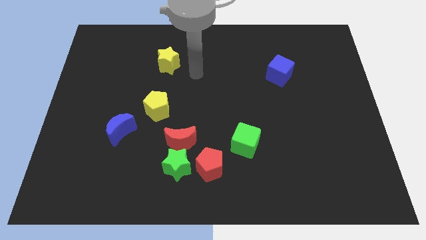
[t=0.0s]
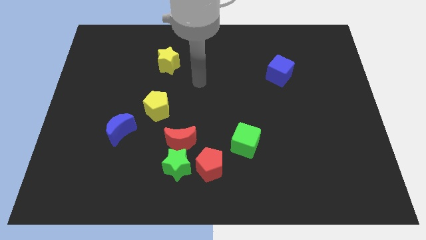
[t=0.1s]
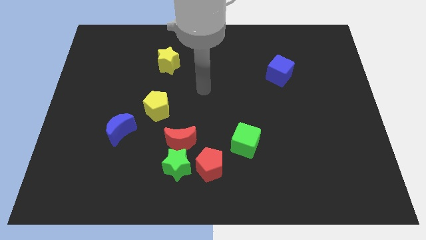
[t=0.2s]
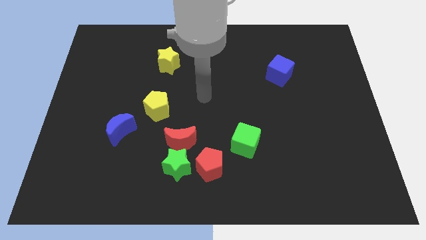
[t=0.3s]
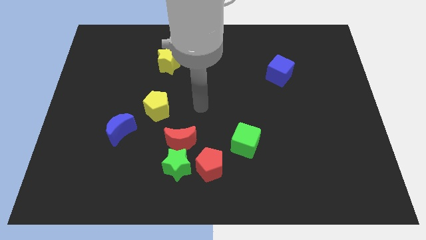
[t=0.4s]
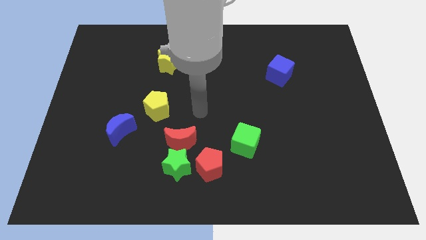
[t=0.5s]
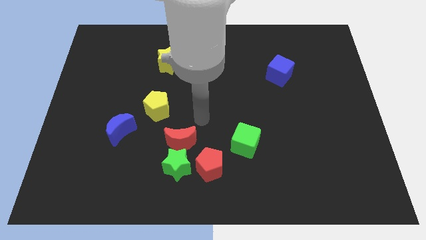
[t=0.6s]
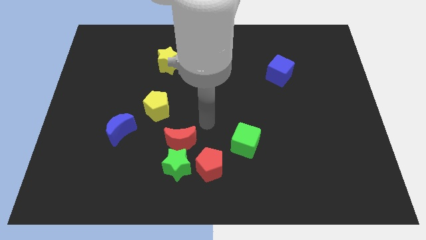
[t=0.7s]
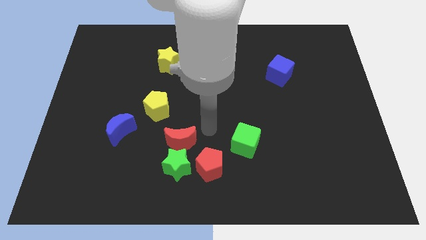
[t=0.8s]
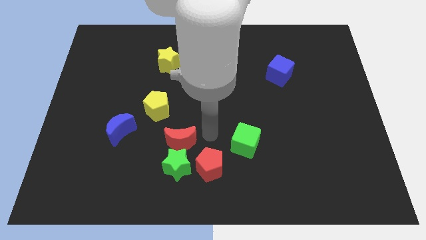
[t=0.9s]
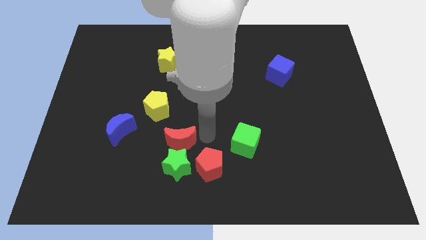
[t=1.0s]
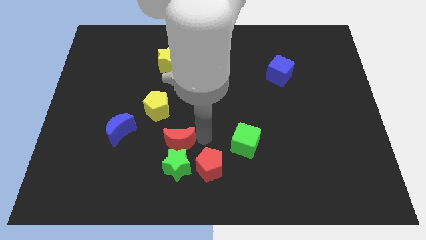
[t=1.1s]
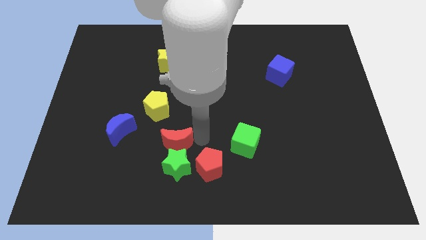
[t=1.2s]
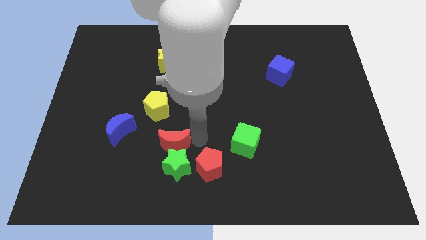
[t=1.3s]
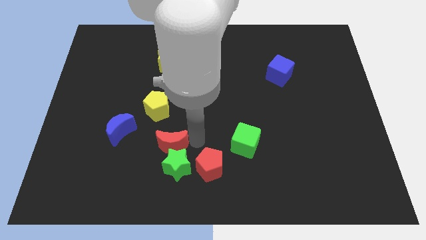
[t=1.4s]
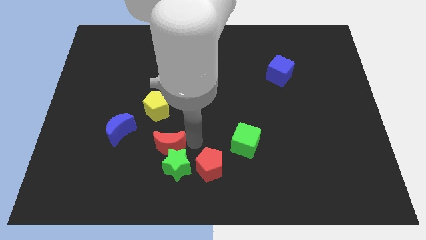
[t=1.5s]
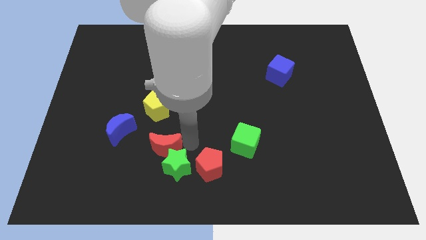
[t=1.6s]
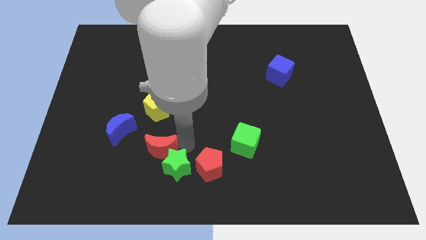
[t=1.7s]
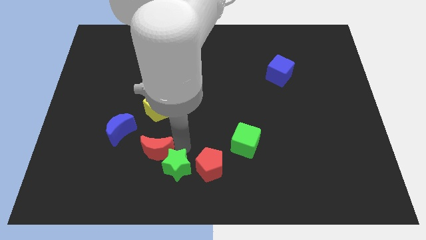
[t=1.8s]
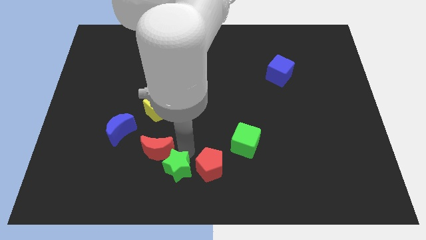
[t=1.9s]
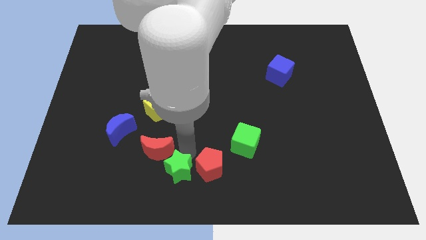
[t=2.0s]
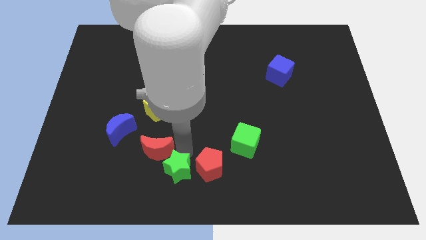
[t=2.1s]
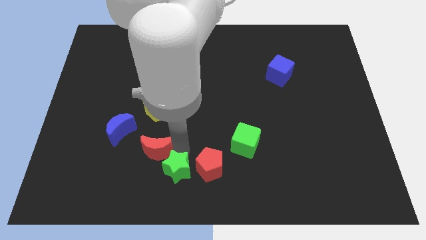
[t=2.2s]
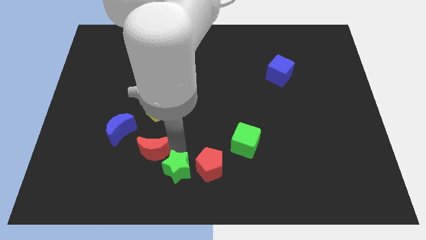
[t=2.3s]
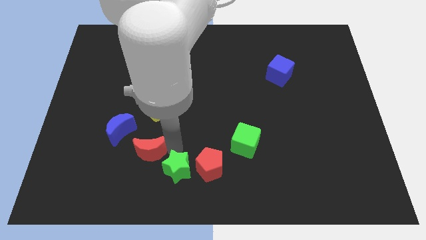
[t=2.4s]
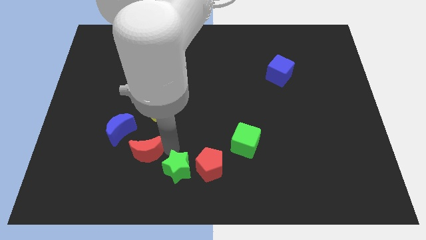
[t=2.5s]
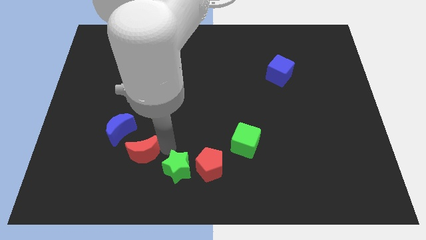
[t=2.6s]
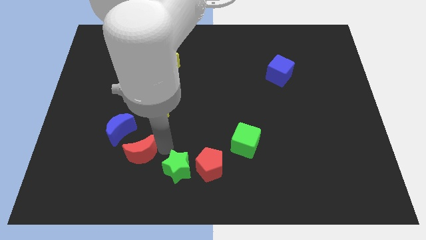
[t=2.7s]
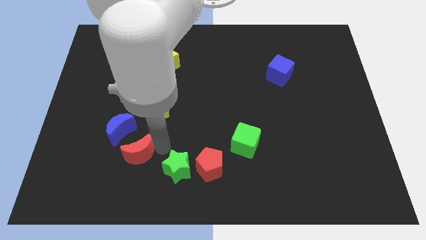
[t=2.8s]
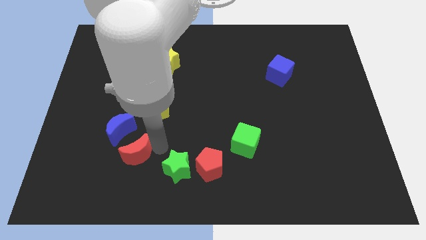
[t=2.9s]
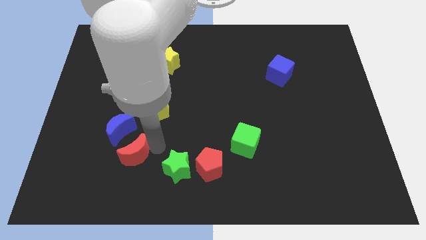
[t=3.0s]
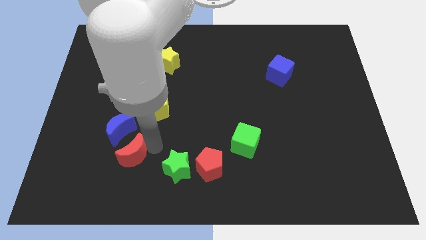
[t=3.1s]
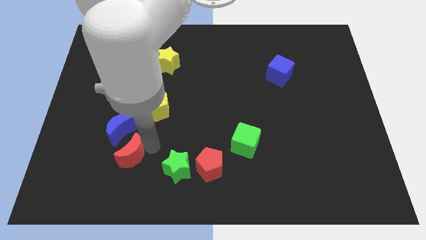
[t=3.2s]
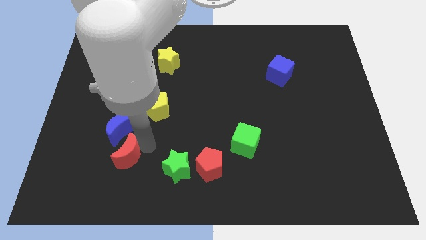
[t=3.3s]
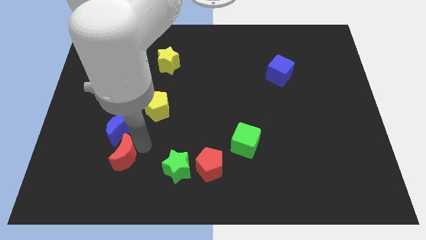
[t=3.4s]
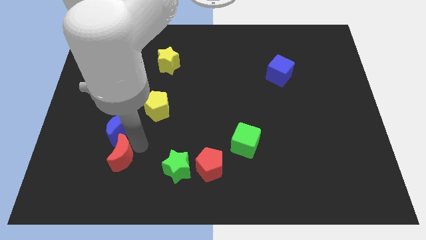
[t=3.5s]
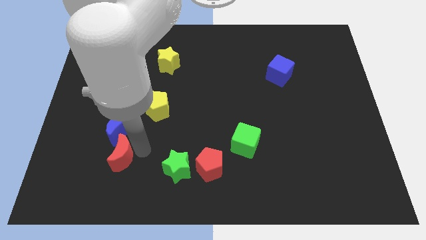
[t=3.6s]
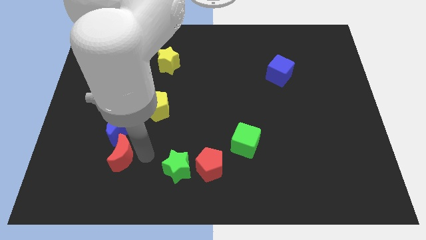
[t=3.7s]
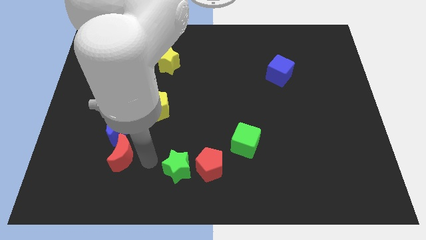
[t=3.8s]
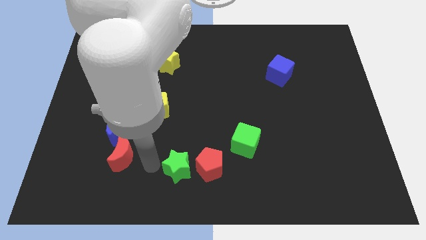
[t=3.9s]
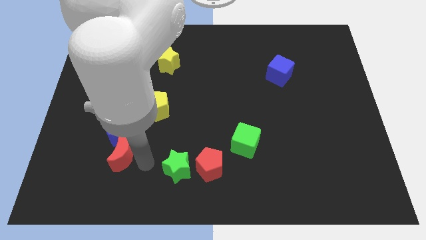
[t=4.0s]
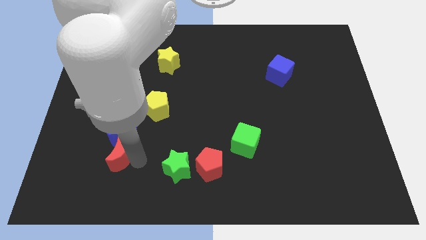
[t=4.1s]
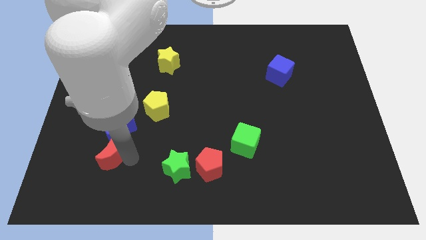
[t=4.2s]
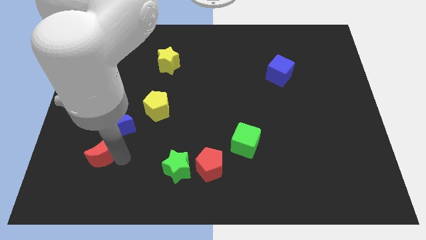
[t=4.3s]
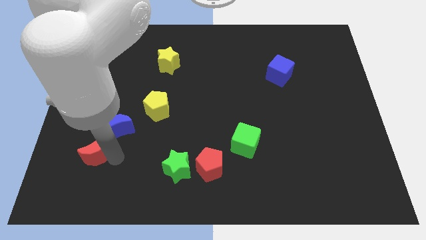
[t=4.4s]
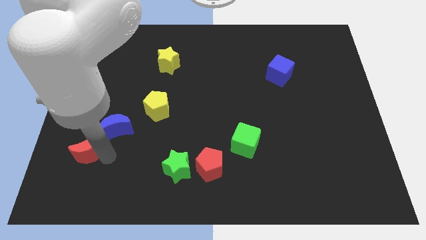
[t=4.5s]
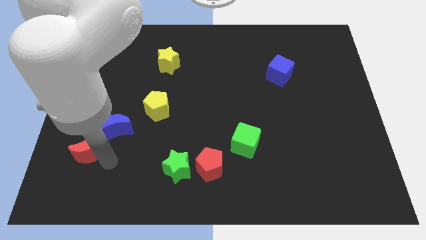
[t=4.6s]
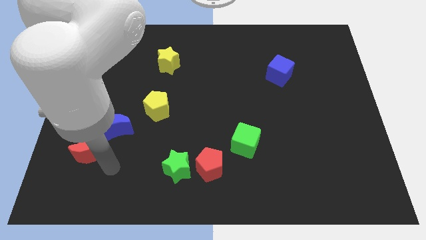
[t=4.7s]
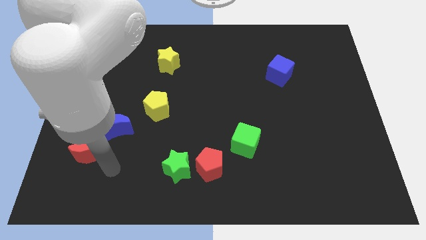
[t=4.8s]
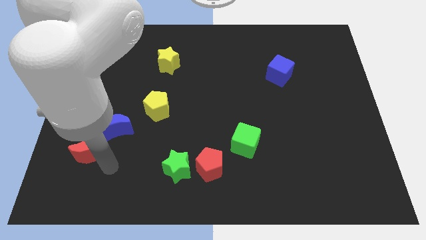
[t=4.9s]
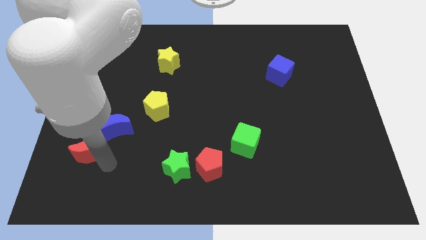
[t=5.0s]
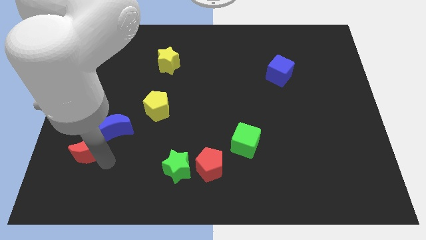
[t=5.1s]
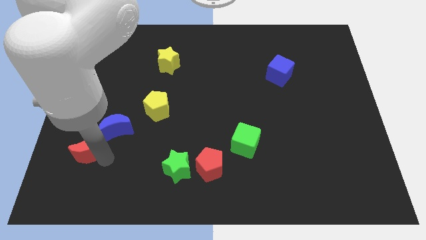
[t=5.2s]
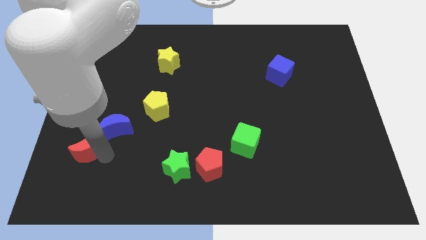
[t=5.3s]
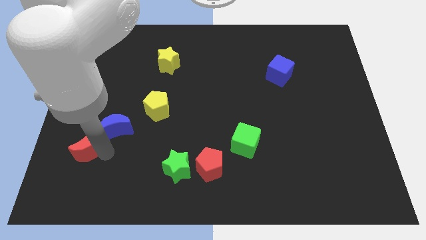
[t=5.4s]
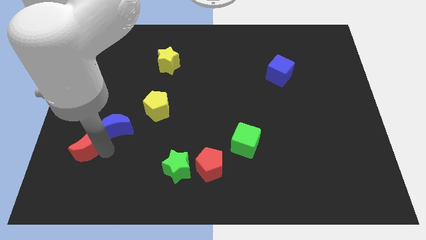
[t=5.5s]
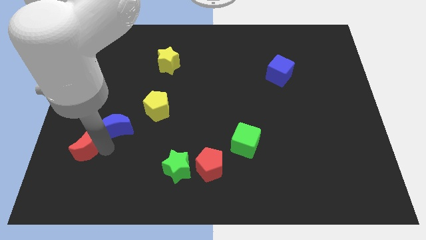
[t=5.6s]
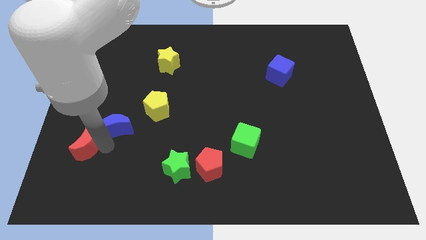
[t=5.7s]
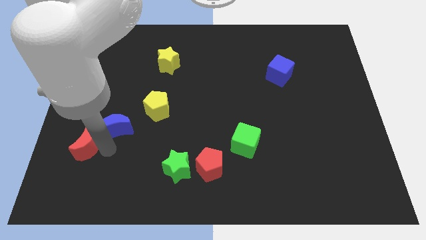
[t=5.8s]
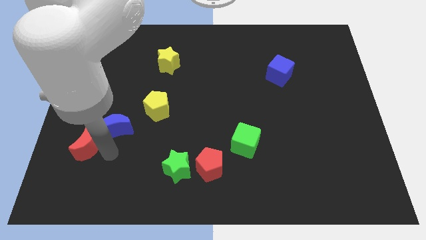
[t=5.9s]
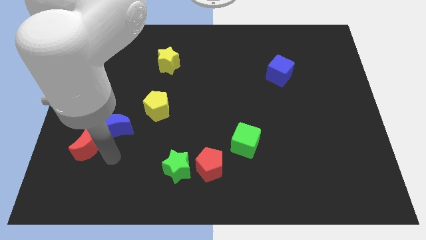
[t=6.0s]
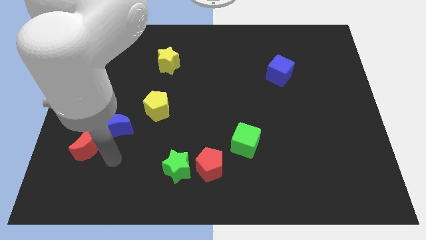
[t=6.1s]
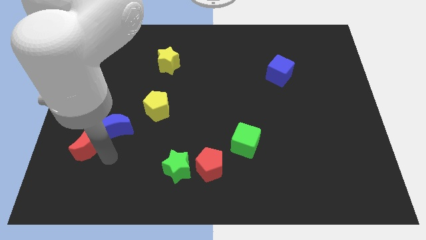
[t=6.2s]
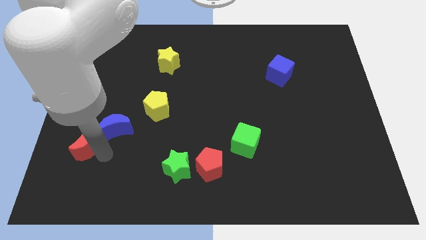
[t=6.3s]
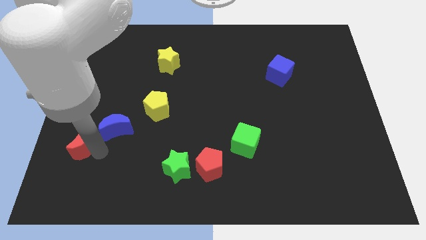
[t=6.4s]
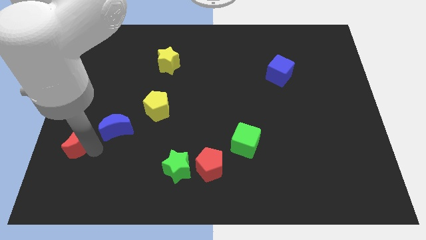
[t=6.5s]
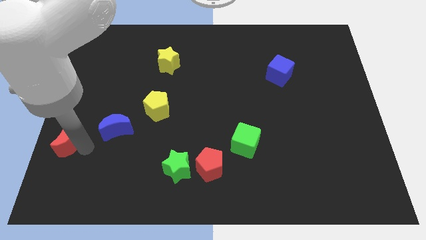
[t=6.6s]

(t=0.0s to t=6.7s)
move the red moon to the left side
